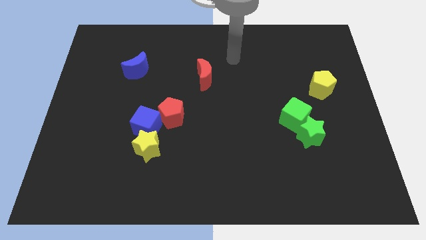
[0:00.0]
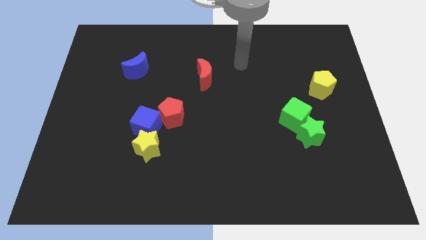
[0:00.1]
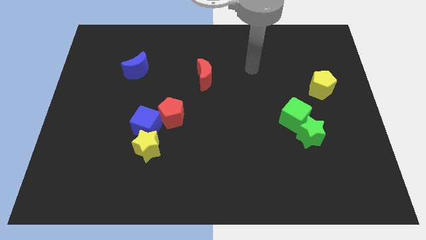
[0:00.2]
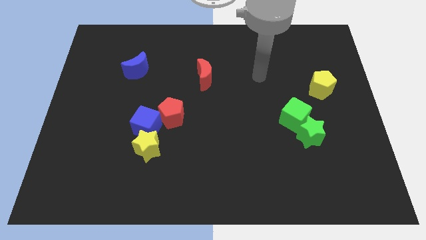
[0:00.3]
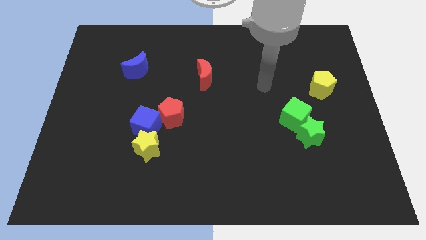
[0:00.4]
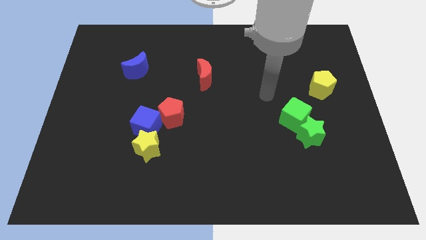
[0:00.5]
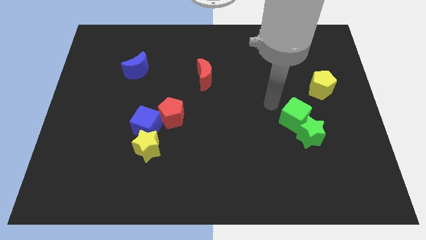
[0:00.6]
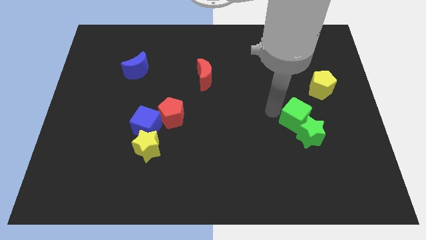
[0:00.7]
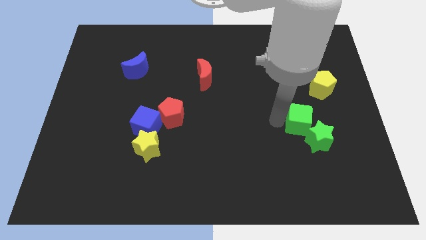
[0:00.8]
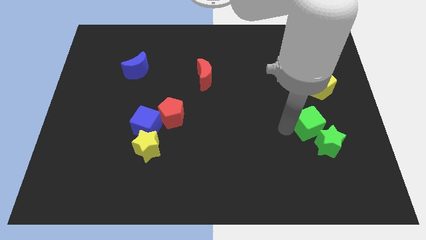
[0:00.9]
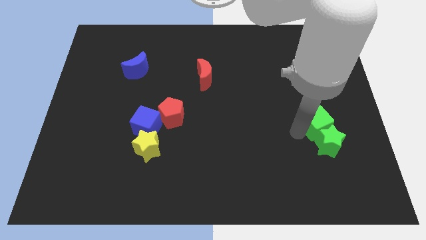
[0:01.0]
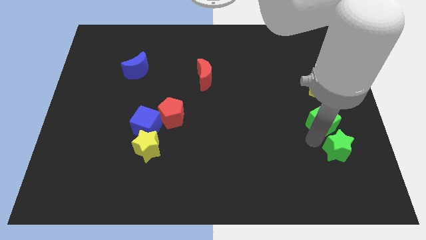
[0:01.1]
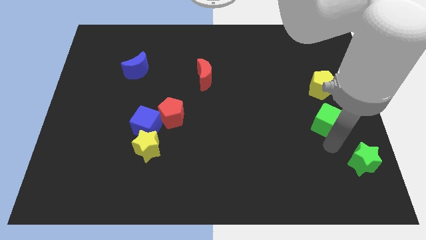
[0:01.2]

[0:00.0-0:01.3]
pull the green cube apart from the green star

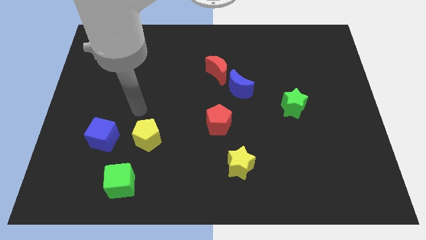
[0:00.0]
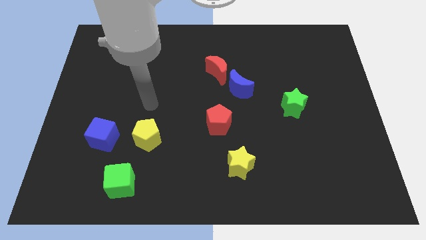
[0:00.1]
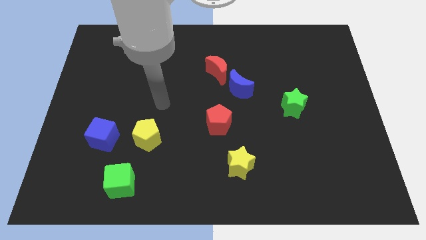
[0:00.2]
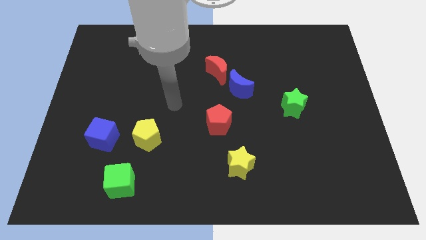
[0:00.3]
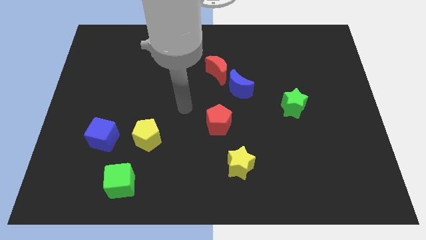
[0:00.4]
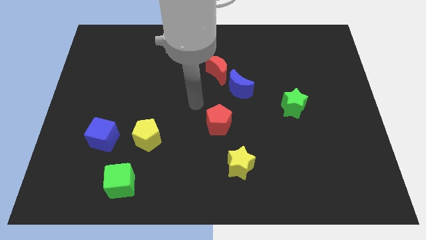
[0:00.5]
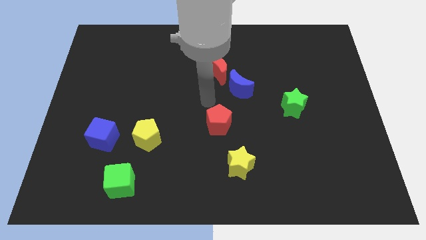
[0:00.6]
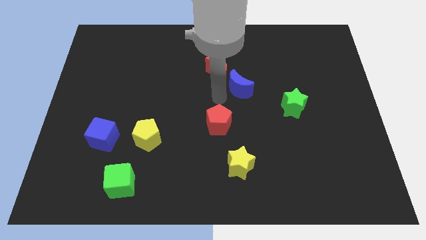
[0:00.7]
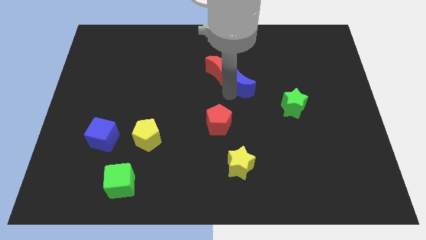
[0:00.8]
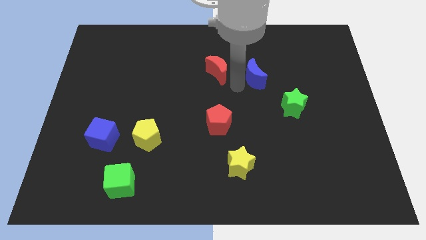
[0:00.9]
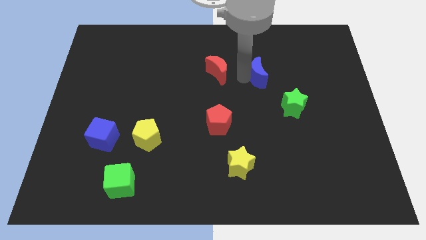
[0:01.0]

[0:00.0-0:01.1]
separate the red moon from the blue moon

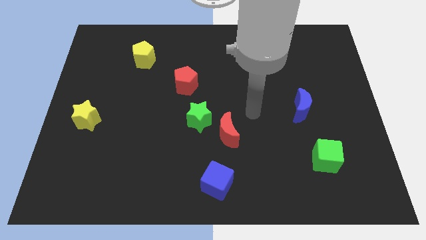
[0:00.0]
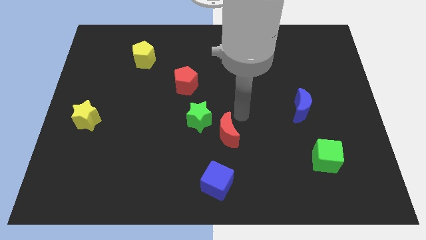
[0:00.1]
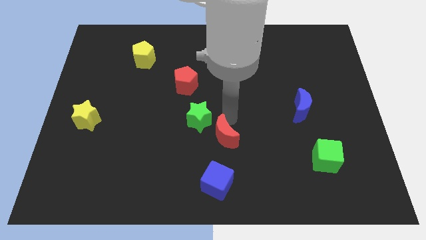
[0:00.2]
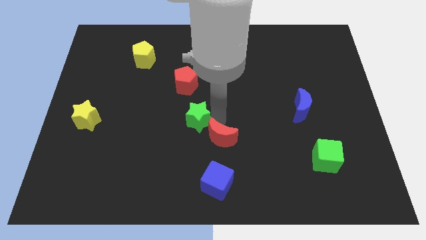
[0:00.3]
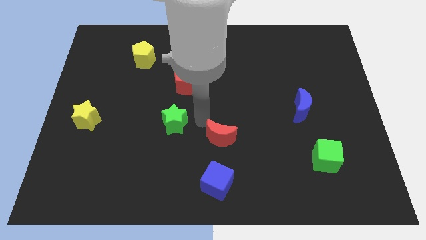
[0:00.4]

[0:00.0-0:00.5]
move the red moon away from the green star

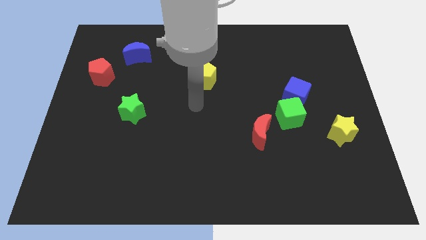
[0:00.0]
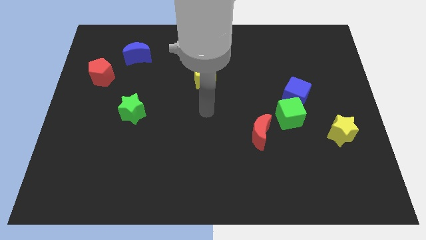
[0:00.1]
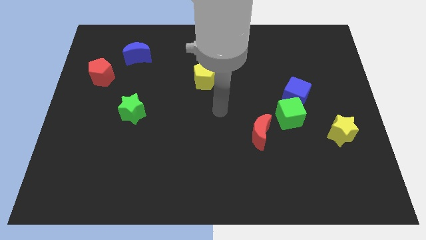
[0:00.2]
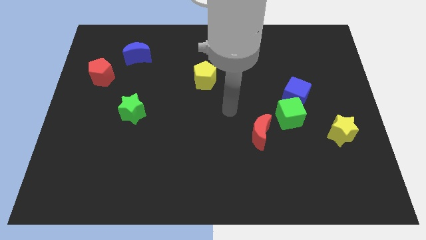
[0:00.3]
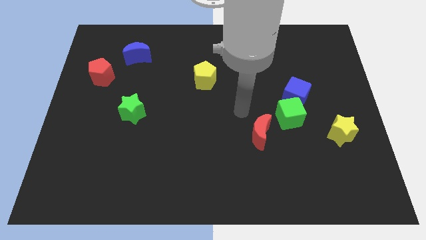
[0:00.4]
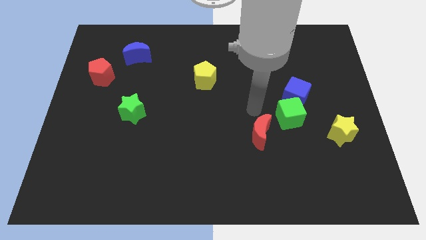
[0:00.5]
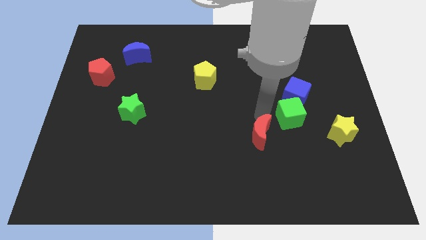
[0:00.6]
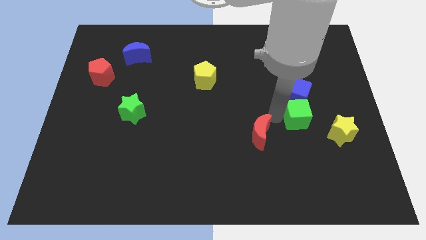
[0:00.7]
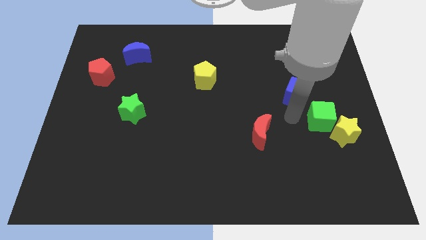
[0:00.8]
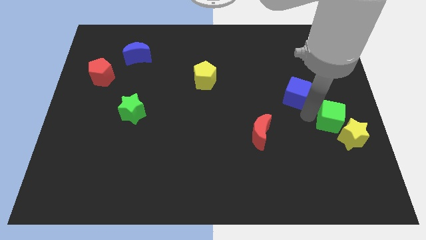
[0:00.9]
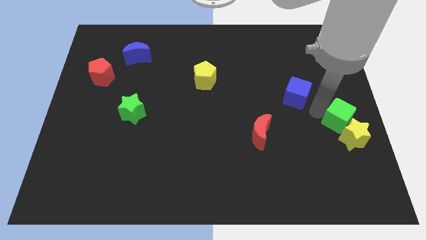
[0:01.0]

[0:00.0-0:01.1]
move the blue cube away from the green cube

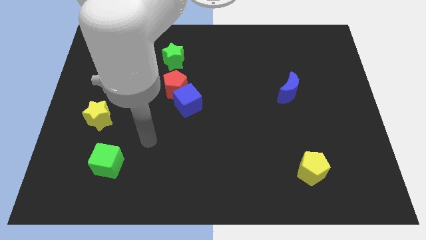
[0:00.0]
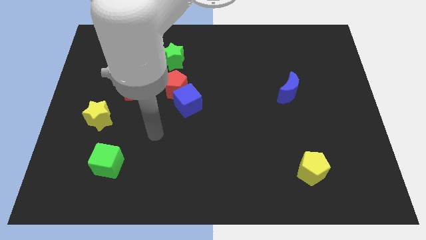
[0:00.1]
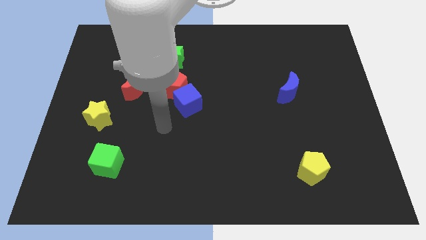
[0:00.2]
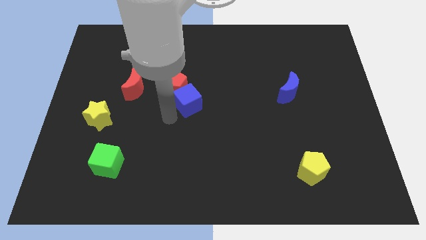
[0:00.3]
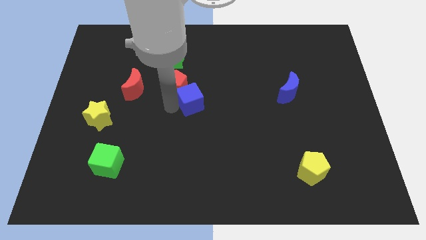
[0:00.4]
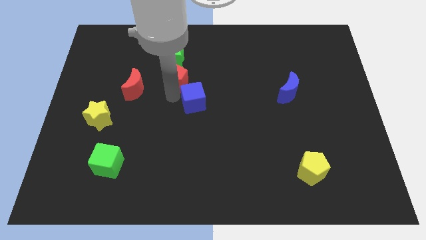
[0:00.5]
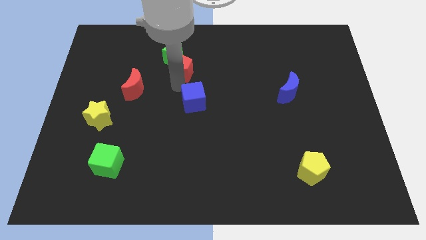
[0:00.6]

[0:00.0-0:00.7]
separate the blue cube from the red pentagon

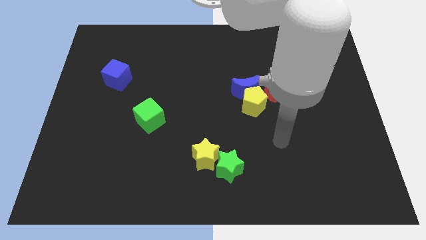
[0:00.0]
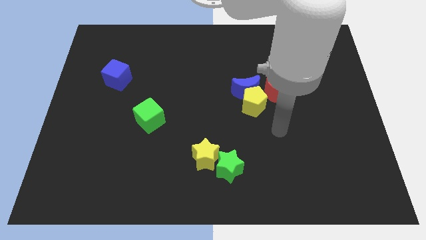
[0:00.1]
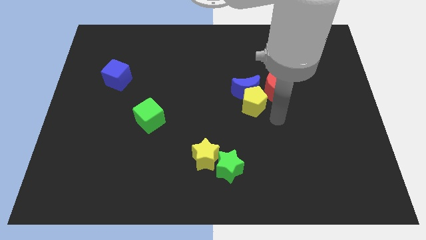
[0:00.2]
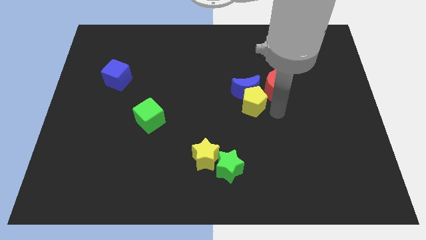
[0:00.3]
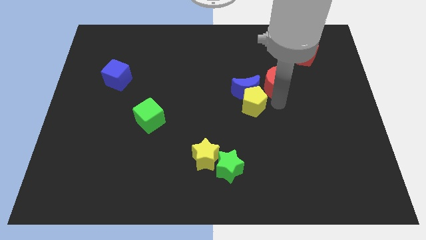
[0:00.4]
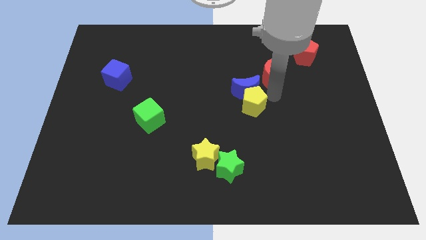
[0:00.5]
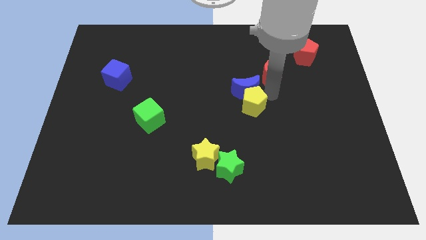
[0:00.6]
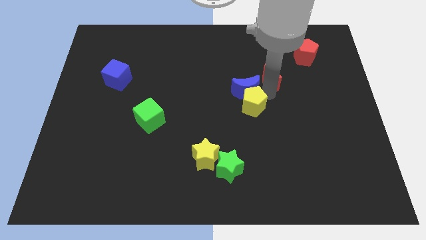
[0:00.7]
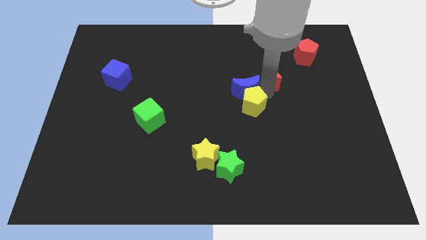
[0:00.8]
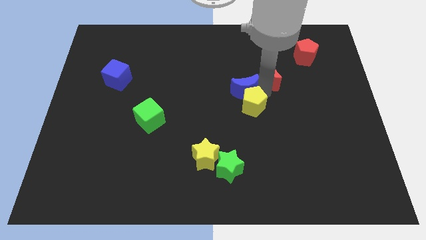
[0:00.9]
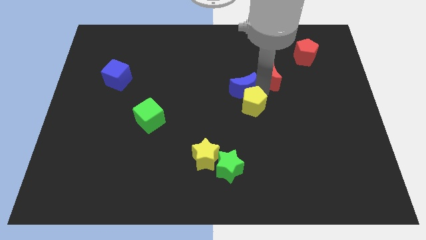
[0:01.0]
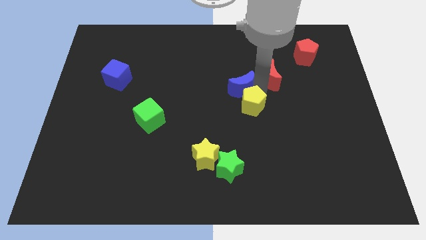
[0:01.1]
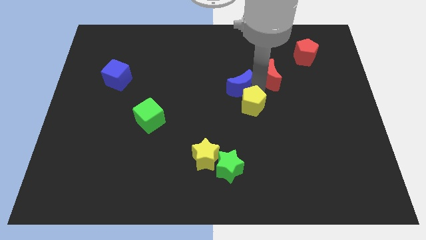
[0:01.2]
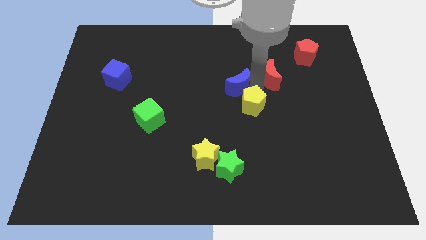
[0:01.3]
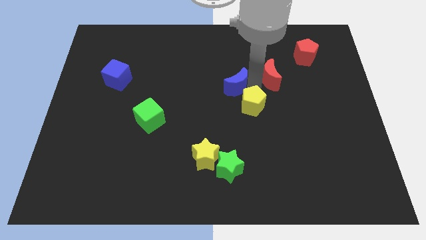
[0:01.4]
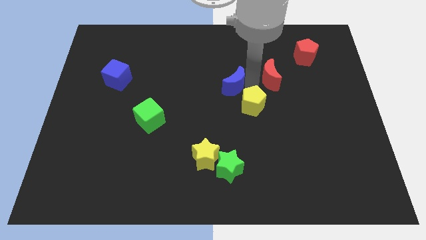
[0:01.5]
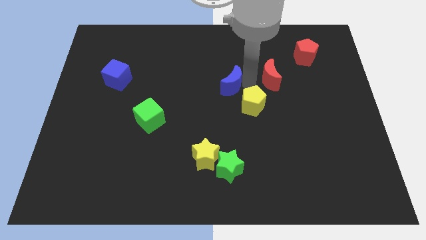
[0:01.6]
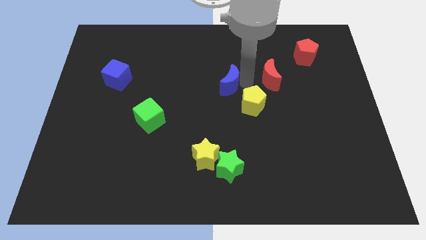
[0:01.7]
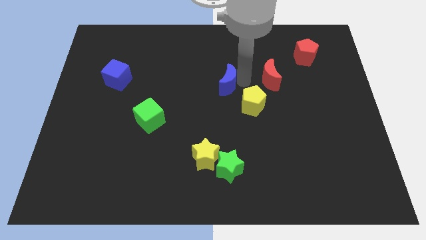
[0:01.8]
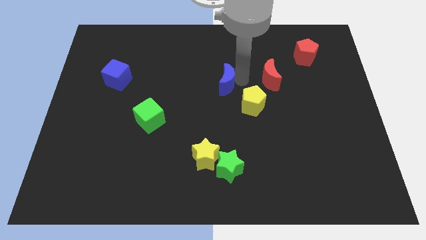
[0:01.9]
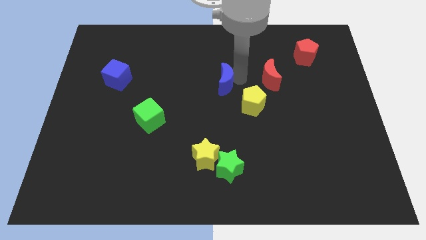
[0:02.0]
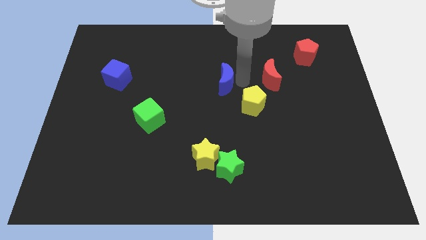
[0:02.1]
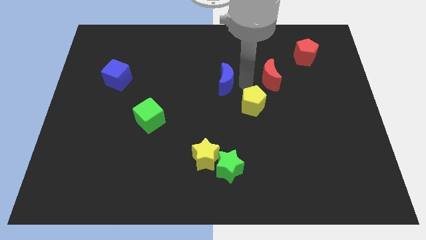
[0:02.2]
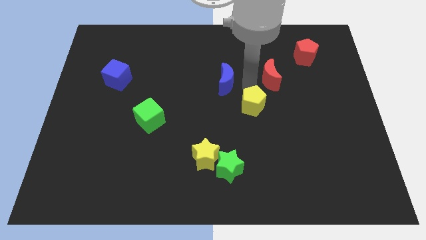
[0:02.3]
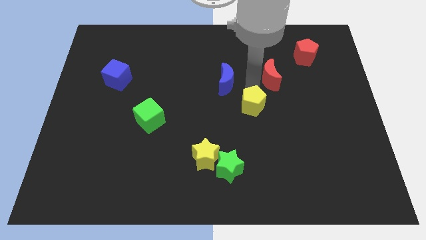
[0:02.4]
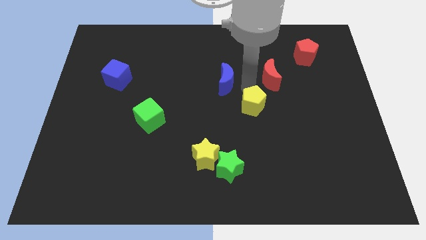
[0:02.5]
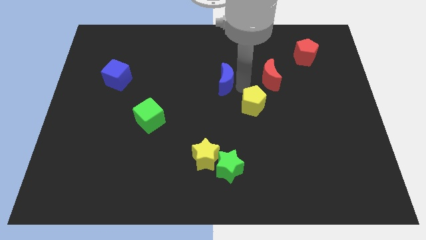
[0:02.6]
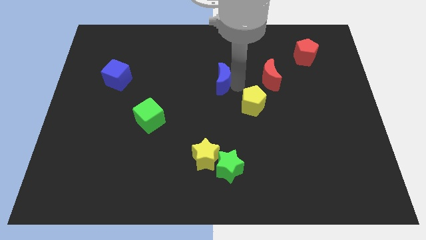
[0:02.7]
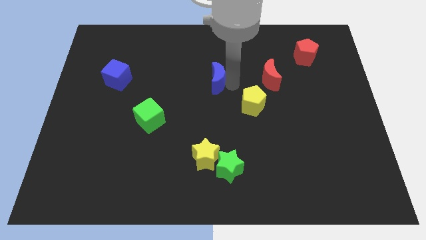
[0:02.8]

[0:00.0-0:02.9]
pull the blue moon apart from the yellow pentagon and red moon

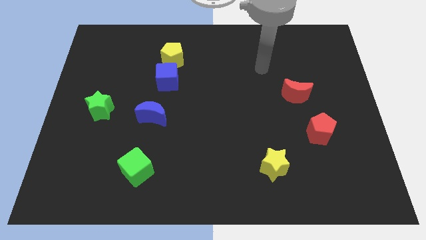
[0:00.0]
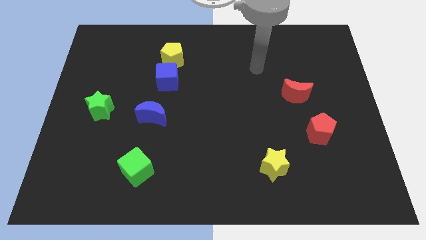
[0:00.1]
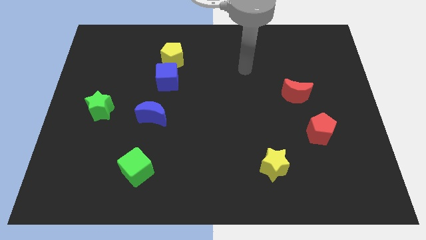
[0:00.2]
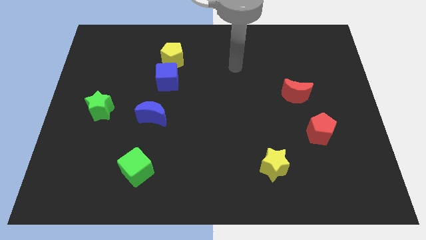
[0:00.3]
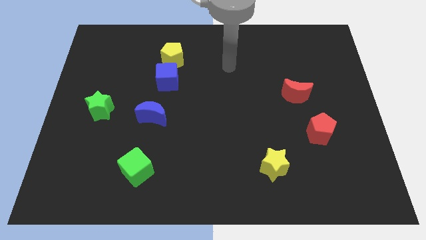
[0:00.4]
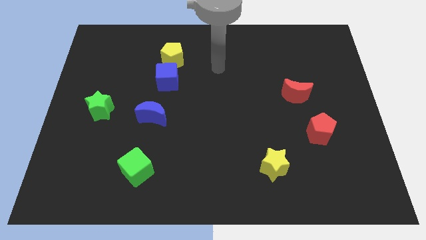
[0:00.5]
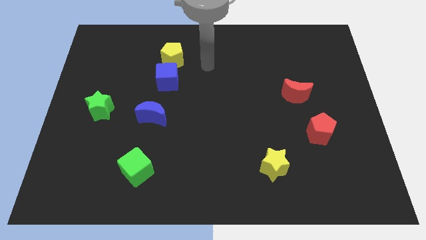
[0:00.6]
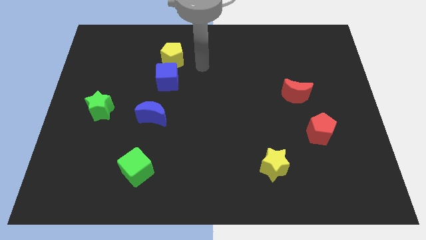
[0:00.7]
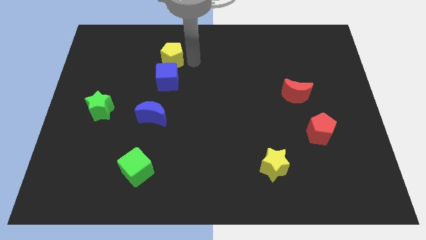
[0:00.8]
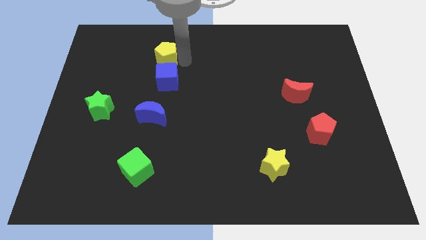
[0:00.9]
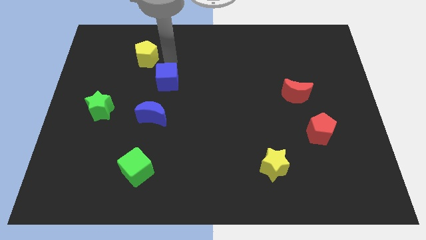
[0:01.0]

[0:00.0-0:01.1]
pull the blue cube apart from the yellow pentagon

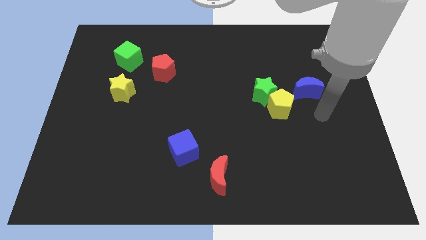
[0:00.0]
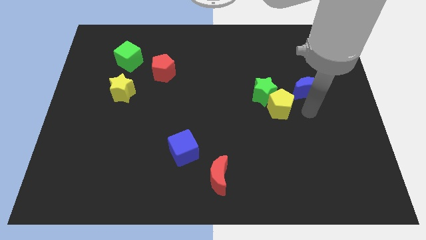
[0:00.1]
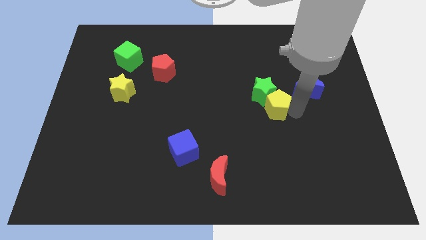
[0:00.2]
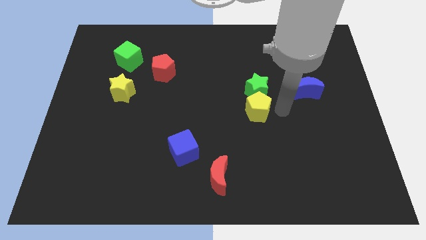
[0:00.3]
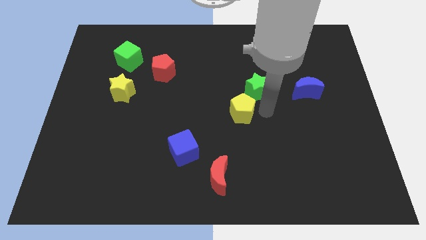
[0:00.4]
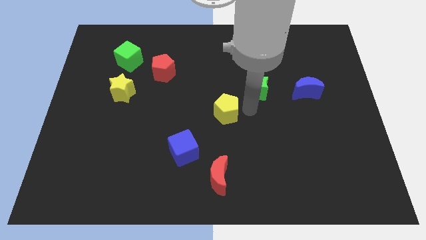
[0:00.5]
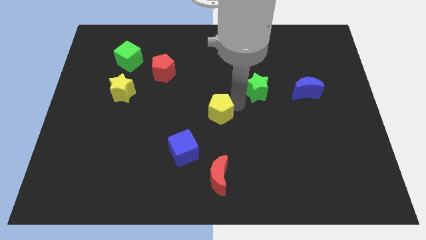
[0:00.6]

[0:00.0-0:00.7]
move the green star away from the yellow pentagon
